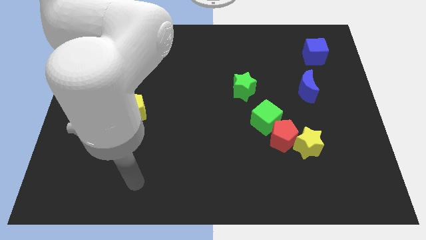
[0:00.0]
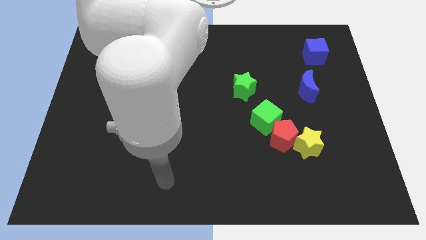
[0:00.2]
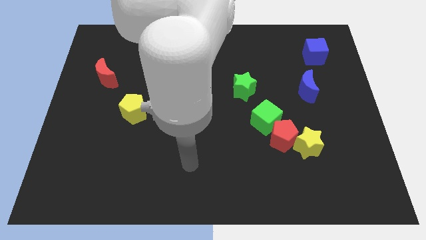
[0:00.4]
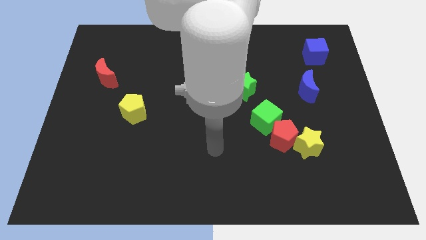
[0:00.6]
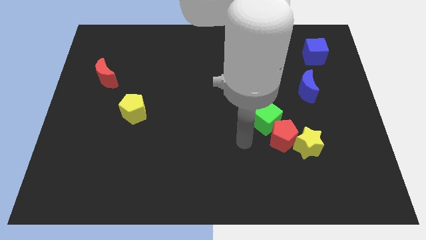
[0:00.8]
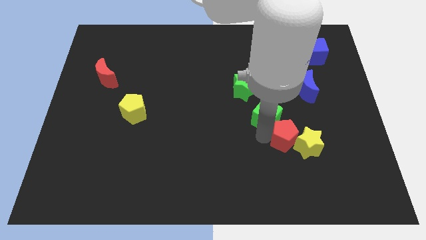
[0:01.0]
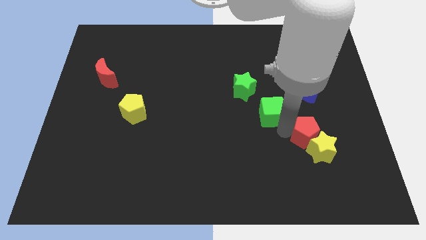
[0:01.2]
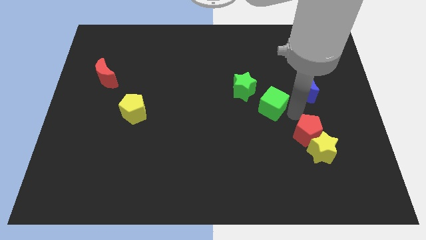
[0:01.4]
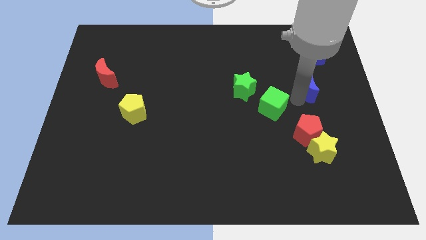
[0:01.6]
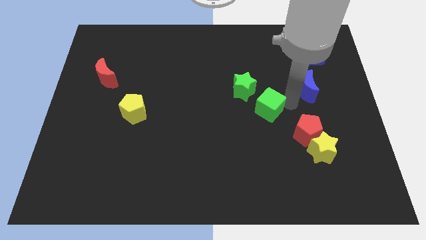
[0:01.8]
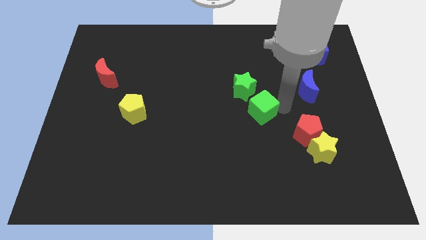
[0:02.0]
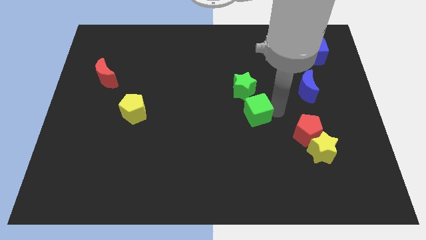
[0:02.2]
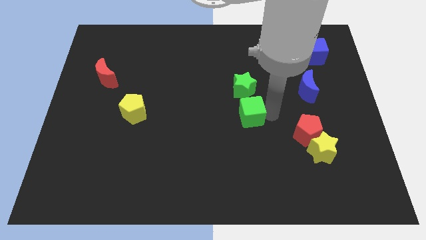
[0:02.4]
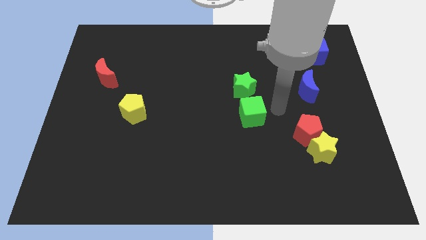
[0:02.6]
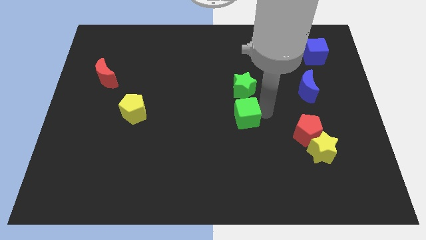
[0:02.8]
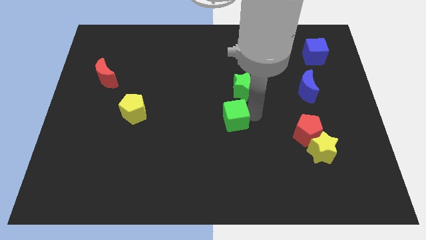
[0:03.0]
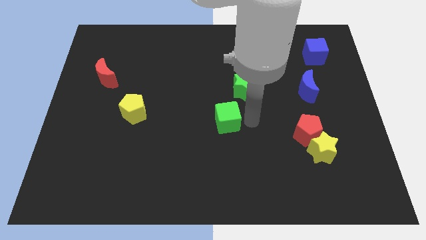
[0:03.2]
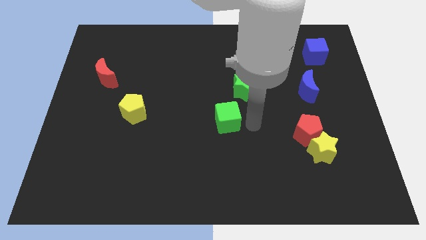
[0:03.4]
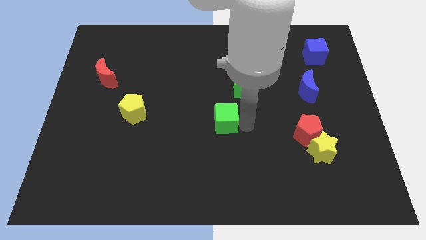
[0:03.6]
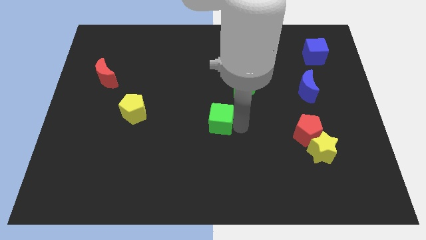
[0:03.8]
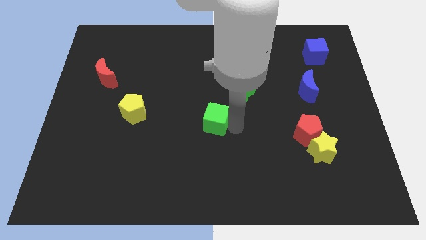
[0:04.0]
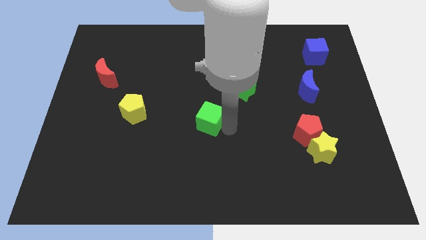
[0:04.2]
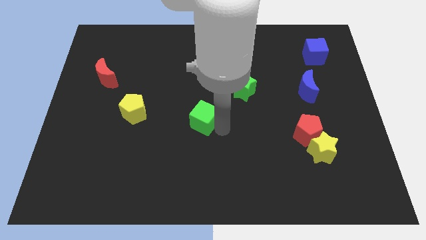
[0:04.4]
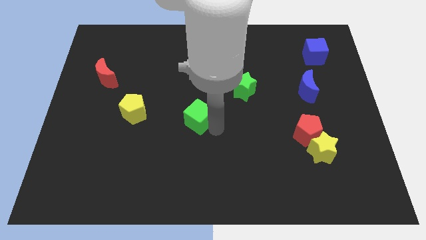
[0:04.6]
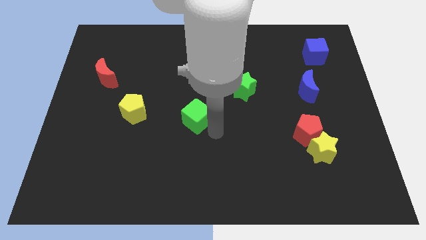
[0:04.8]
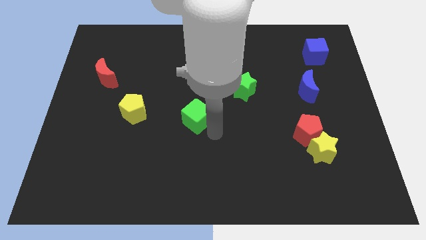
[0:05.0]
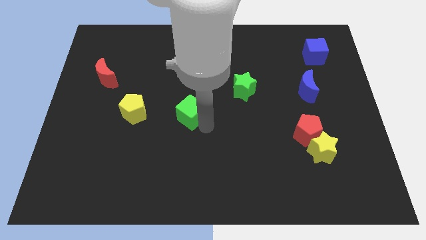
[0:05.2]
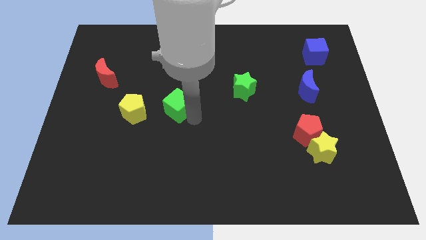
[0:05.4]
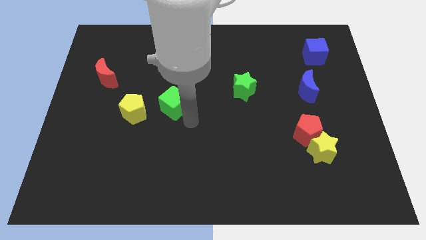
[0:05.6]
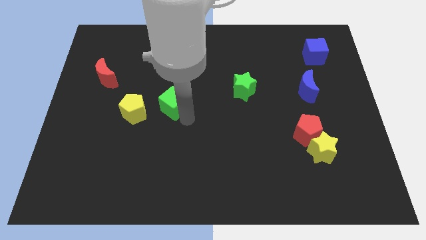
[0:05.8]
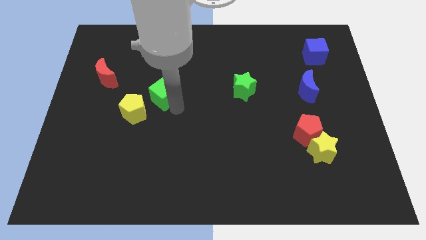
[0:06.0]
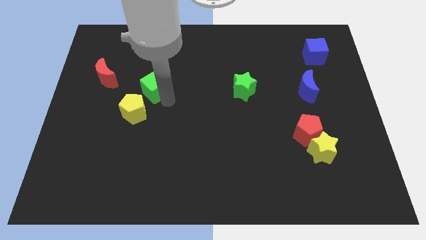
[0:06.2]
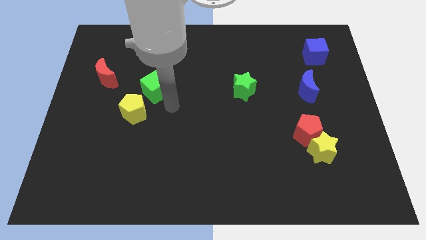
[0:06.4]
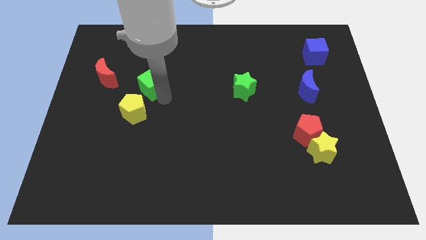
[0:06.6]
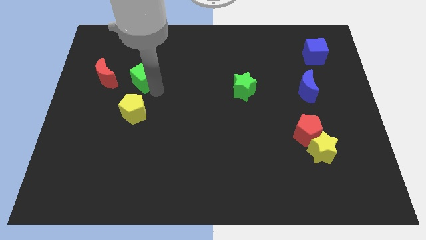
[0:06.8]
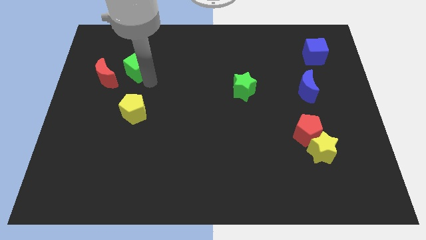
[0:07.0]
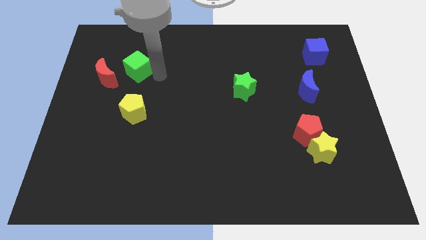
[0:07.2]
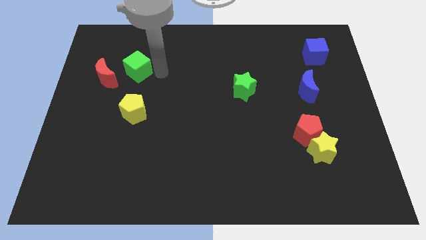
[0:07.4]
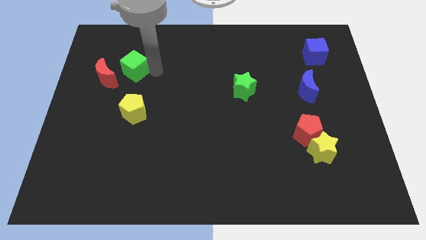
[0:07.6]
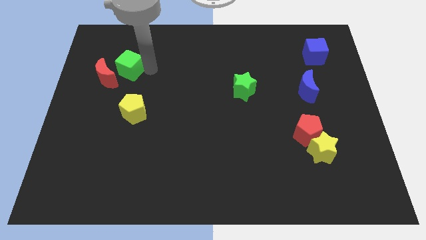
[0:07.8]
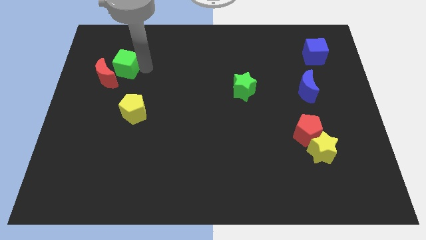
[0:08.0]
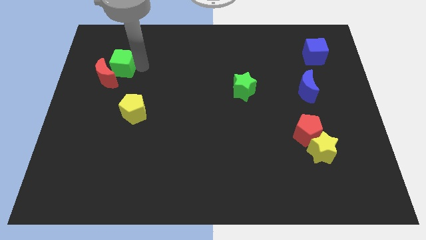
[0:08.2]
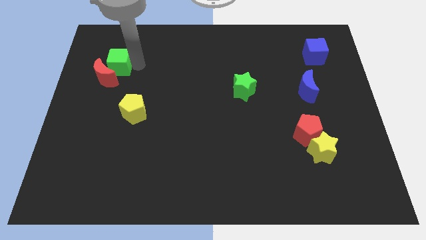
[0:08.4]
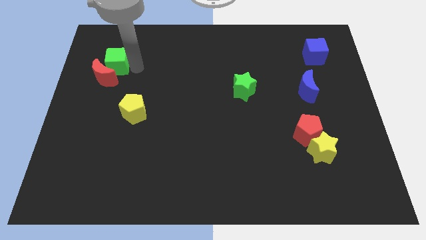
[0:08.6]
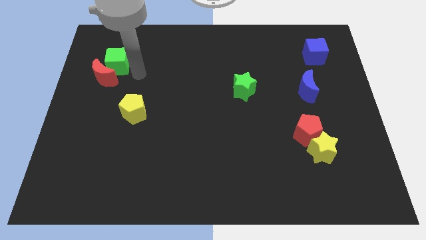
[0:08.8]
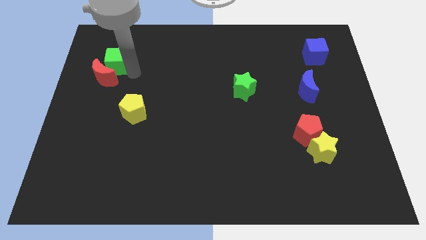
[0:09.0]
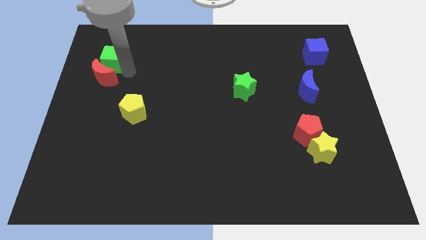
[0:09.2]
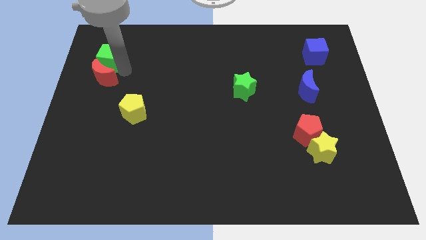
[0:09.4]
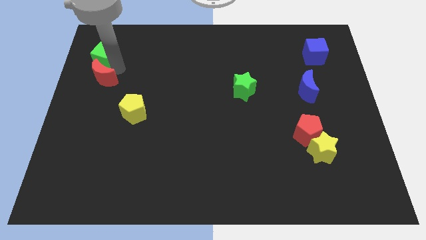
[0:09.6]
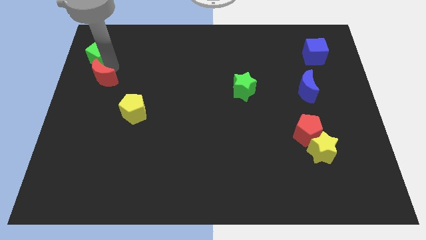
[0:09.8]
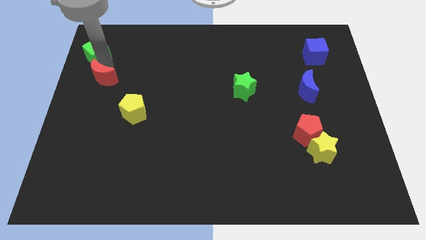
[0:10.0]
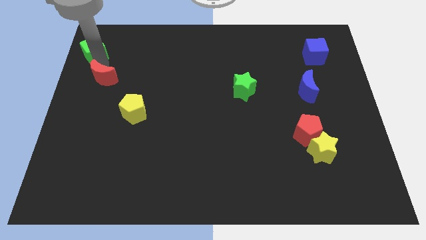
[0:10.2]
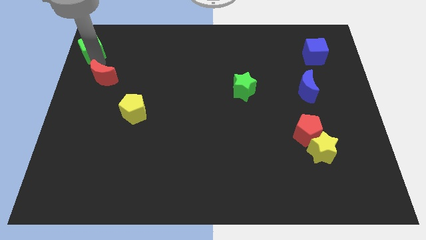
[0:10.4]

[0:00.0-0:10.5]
push the green cube to the top left of the board

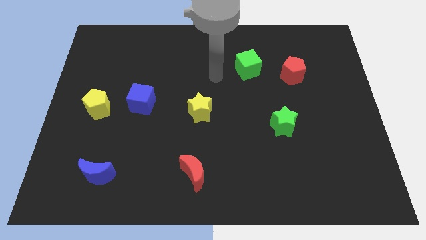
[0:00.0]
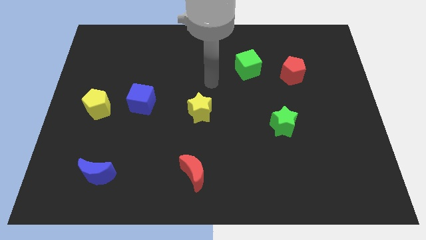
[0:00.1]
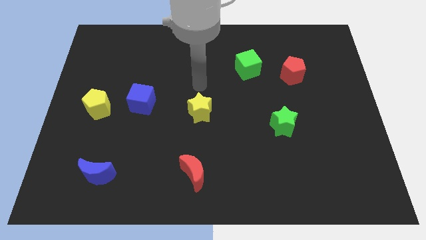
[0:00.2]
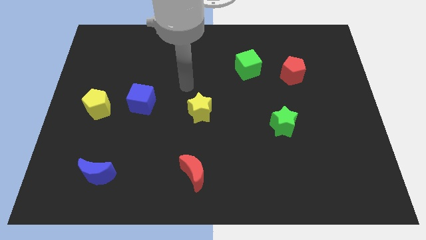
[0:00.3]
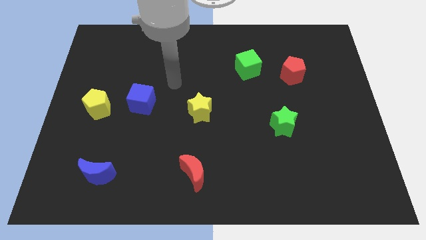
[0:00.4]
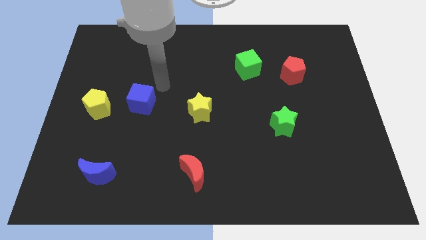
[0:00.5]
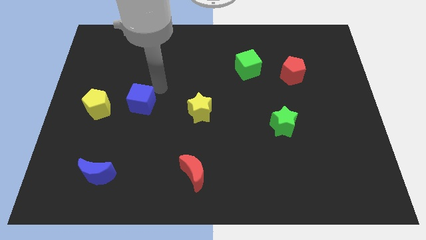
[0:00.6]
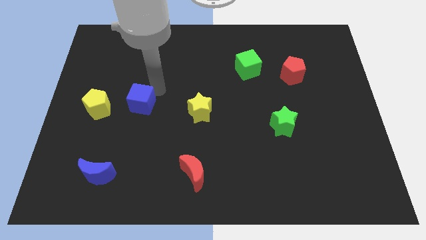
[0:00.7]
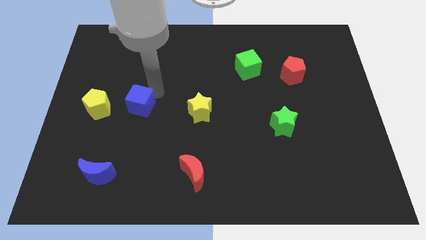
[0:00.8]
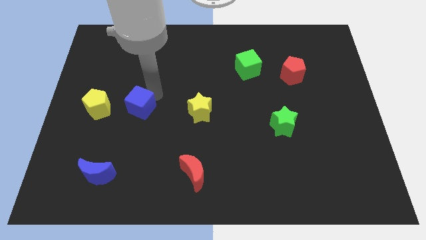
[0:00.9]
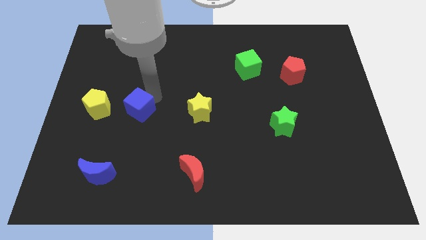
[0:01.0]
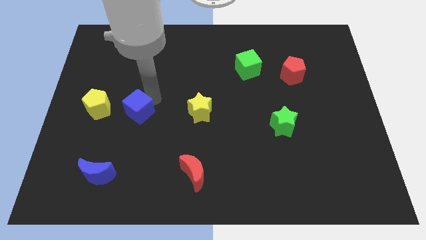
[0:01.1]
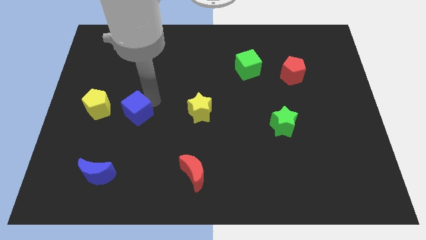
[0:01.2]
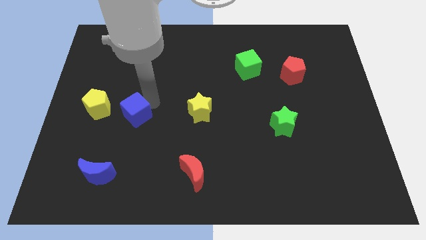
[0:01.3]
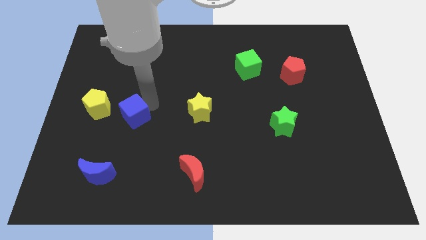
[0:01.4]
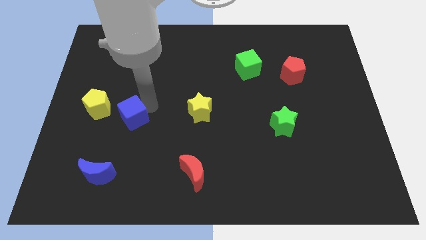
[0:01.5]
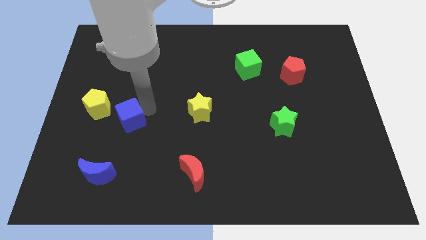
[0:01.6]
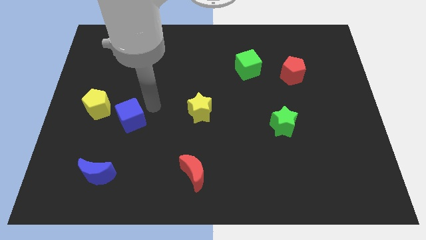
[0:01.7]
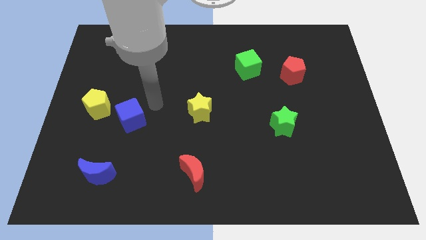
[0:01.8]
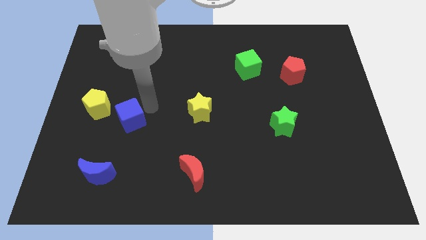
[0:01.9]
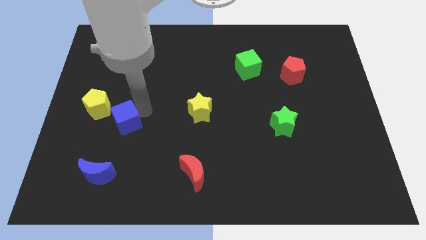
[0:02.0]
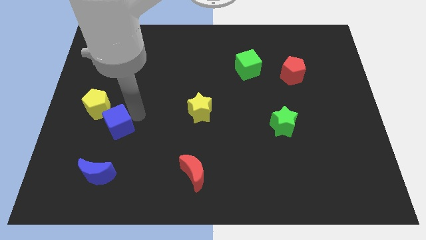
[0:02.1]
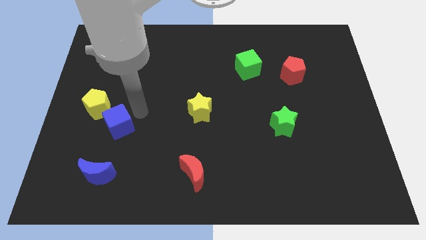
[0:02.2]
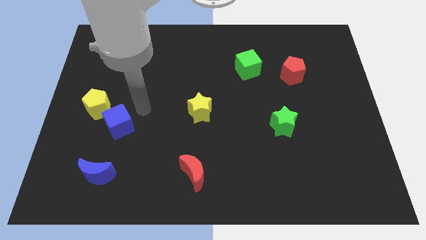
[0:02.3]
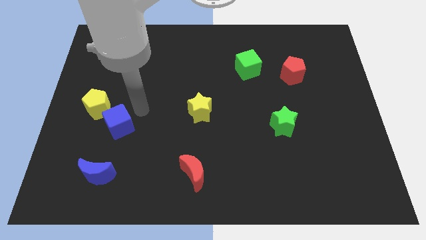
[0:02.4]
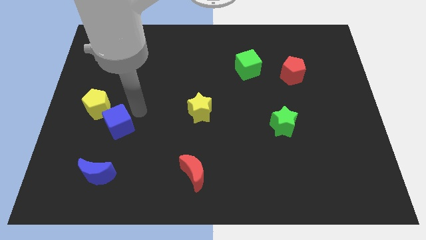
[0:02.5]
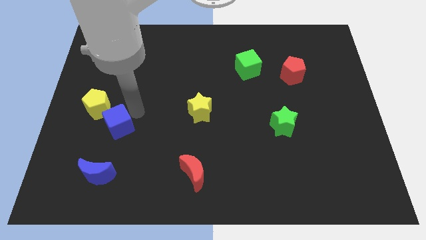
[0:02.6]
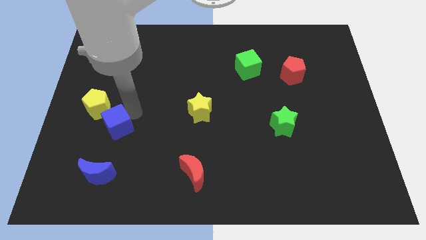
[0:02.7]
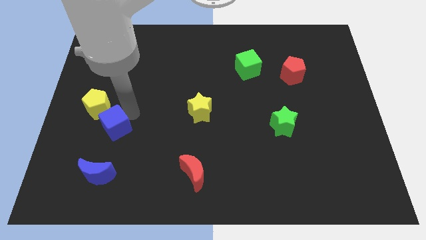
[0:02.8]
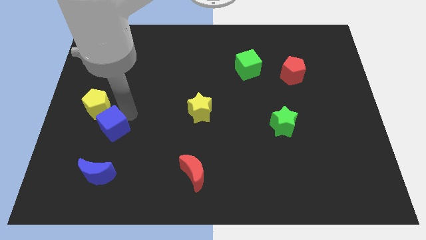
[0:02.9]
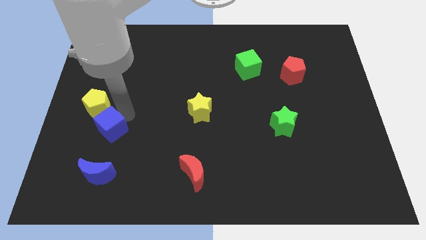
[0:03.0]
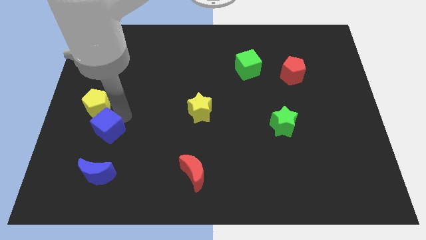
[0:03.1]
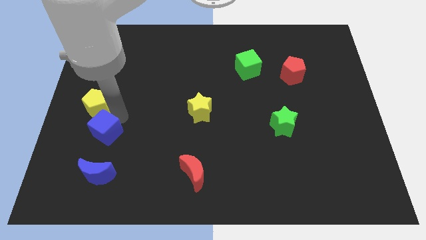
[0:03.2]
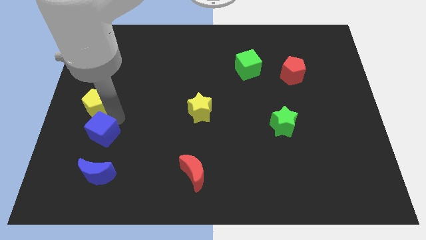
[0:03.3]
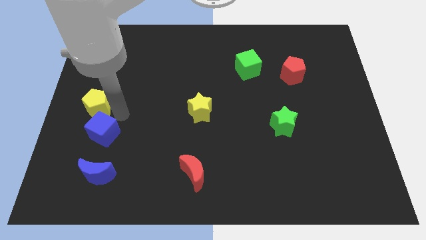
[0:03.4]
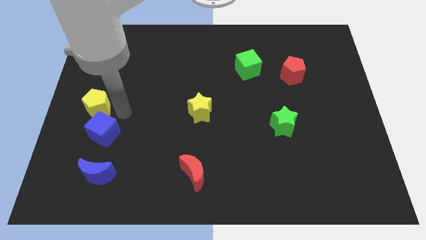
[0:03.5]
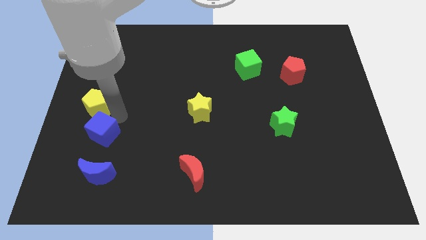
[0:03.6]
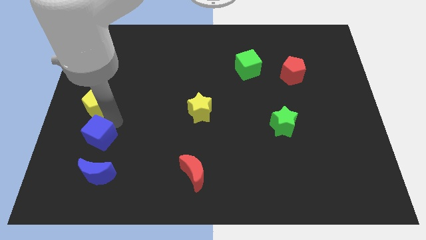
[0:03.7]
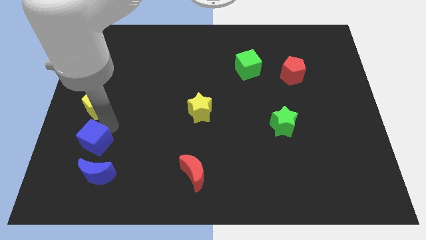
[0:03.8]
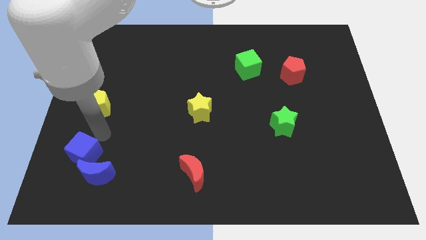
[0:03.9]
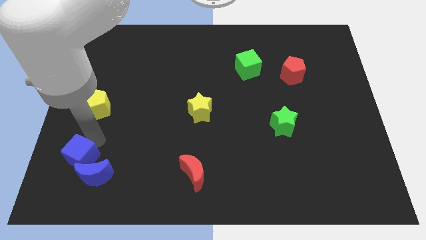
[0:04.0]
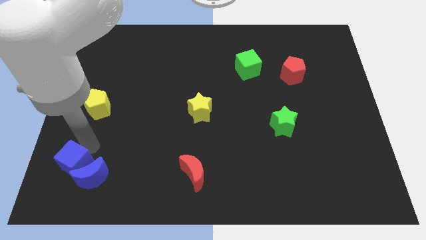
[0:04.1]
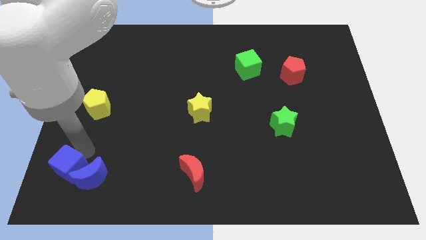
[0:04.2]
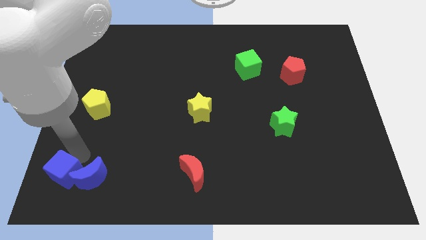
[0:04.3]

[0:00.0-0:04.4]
move the blue cube to the lower left corner
